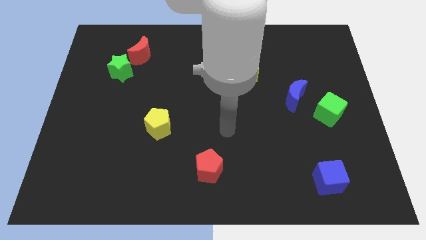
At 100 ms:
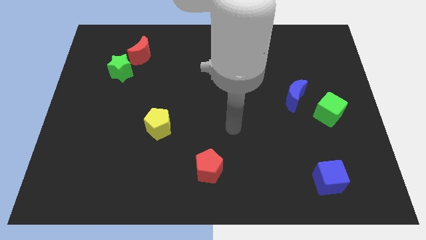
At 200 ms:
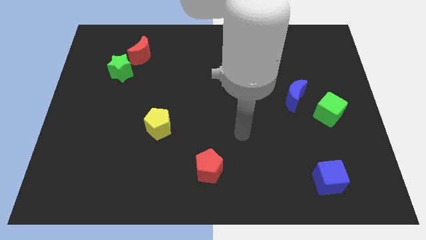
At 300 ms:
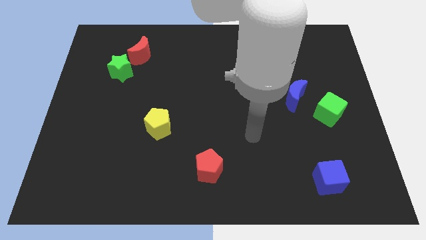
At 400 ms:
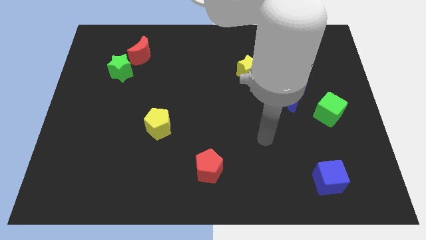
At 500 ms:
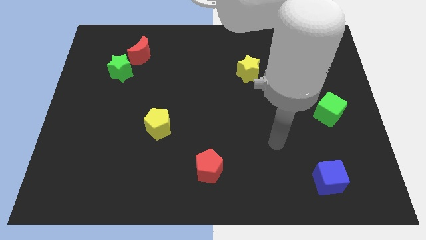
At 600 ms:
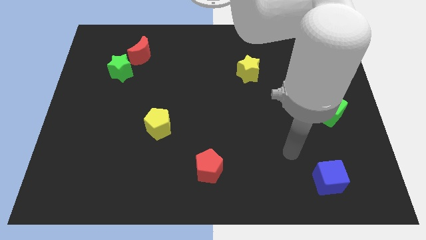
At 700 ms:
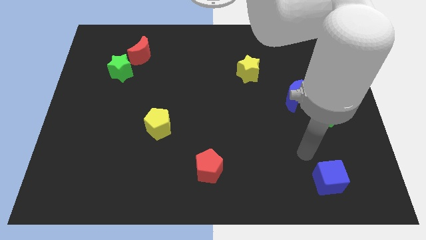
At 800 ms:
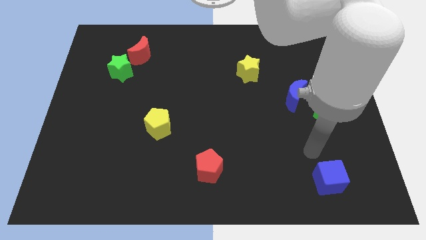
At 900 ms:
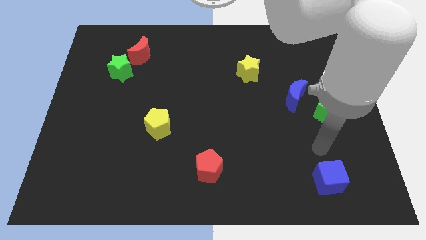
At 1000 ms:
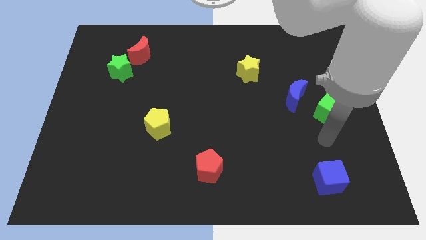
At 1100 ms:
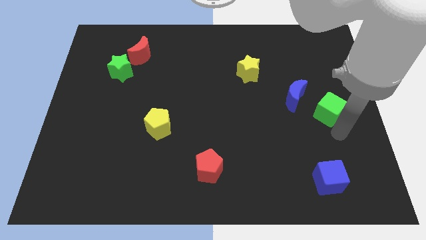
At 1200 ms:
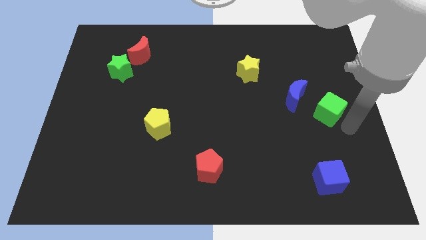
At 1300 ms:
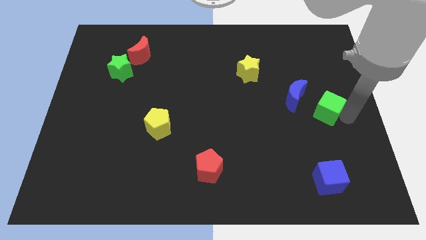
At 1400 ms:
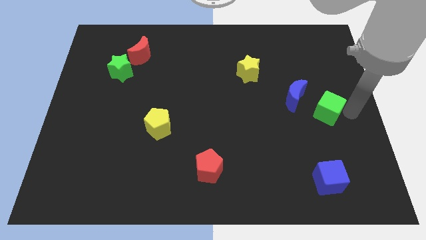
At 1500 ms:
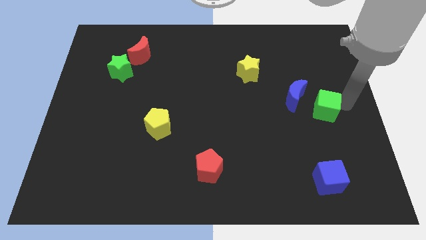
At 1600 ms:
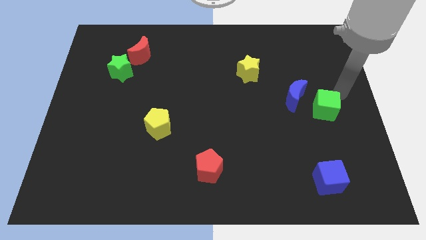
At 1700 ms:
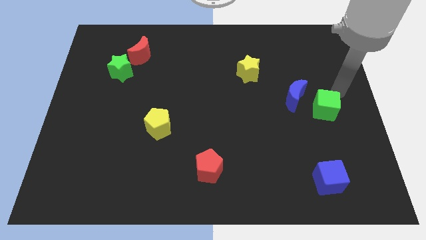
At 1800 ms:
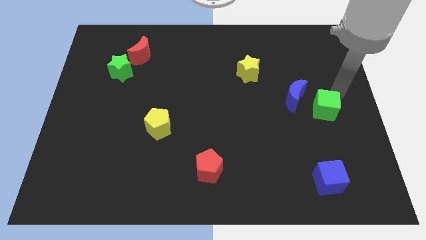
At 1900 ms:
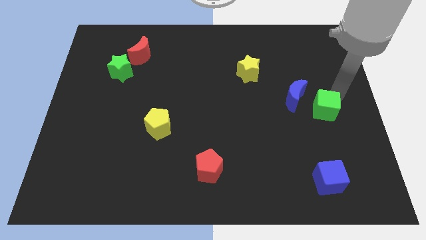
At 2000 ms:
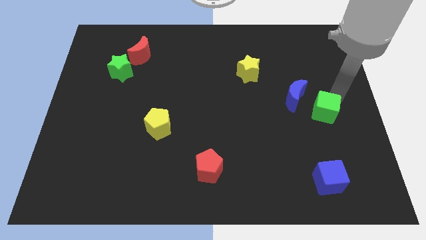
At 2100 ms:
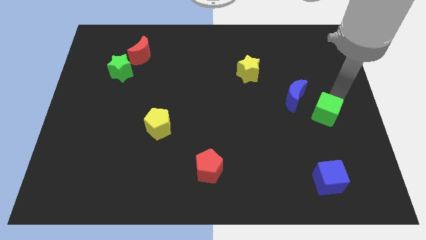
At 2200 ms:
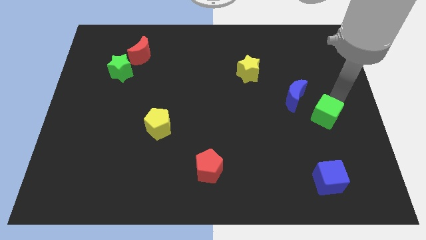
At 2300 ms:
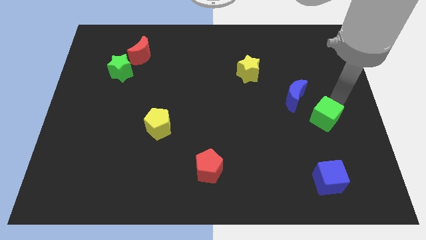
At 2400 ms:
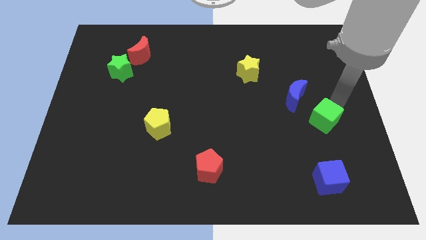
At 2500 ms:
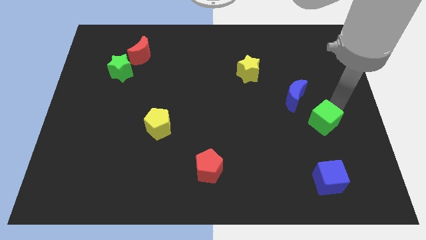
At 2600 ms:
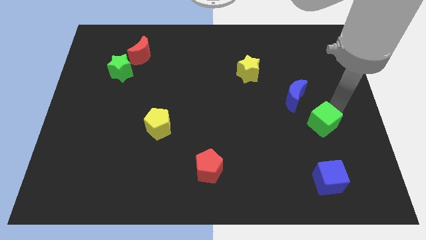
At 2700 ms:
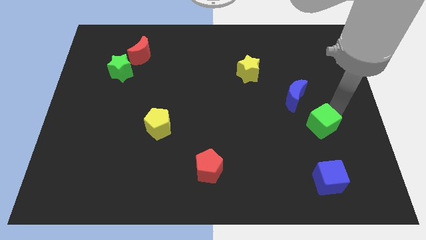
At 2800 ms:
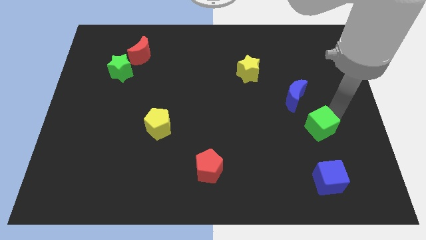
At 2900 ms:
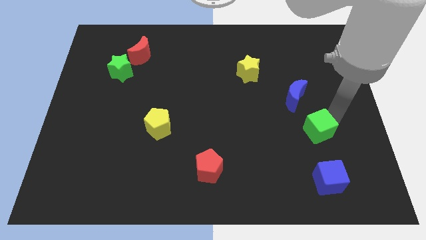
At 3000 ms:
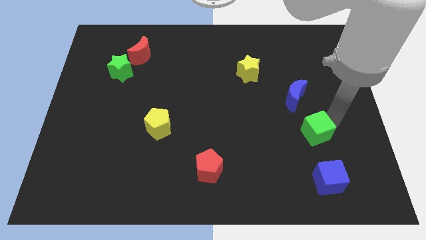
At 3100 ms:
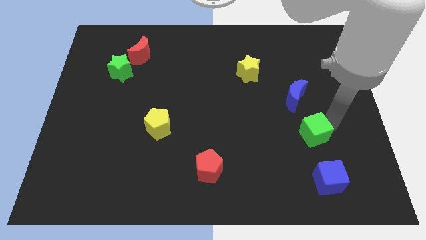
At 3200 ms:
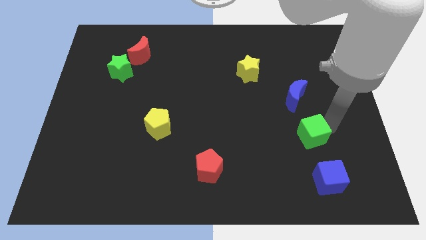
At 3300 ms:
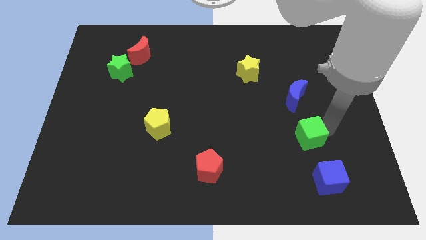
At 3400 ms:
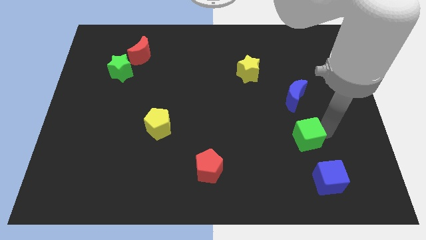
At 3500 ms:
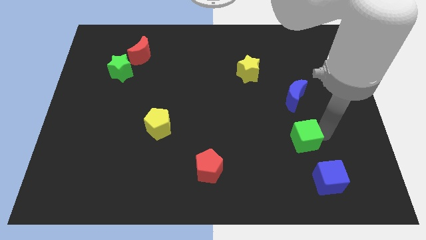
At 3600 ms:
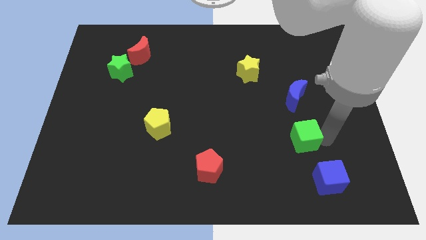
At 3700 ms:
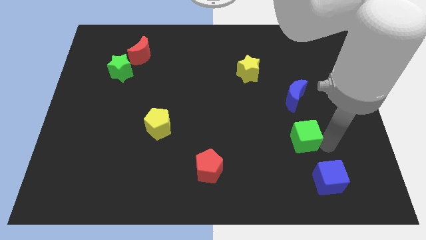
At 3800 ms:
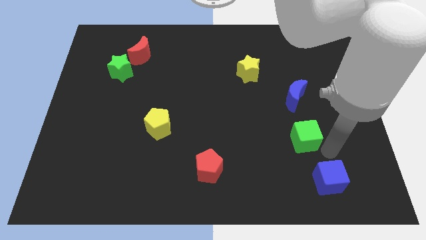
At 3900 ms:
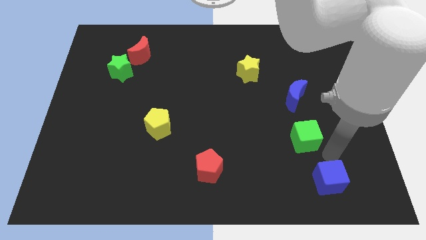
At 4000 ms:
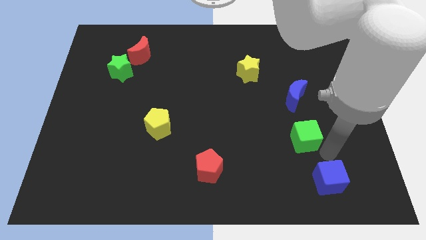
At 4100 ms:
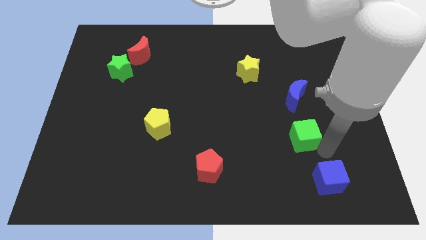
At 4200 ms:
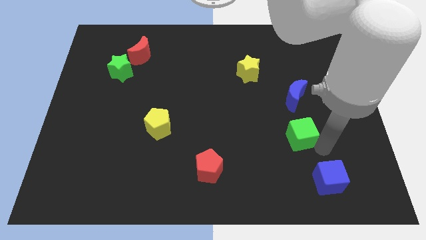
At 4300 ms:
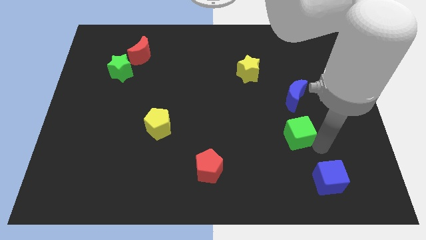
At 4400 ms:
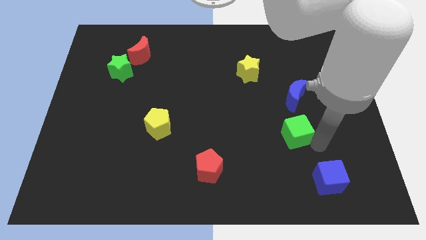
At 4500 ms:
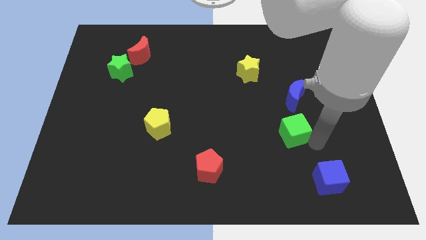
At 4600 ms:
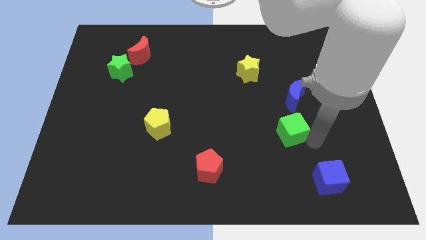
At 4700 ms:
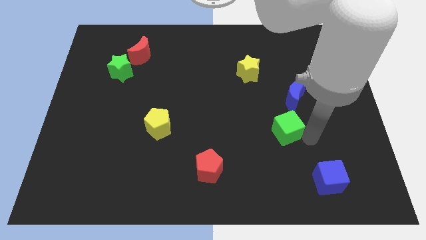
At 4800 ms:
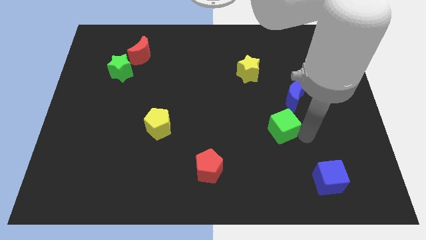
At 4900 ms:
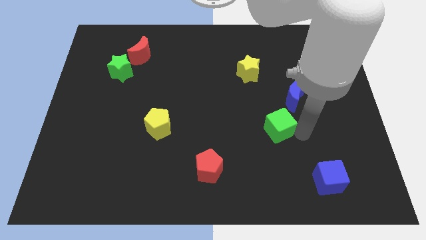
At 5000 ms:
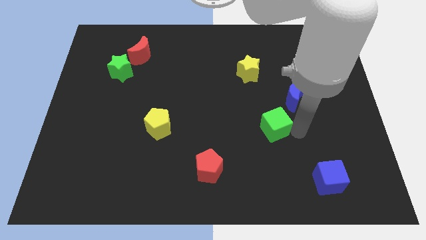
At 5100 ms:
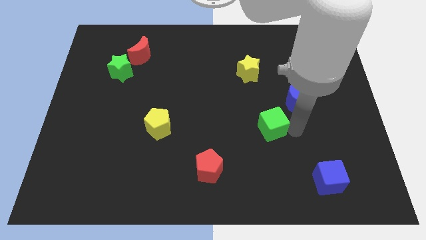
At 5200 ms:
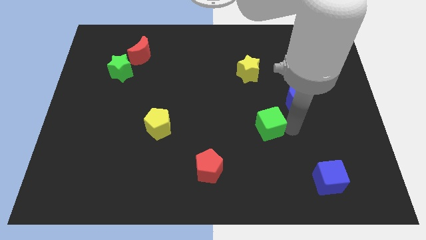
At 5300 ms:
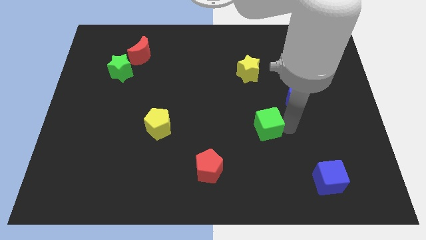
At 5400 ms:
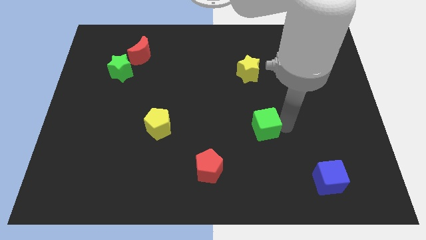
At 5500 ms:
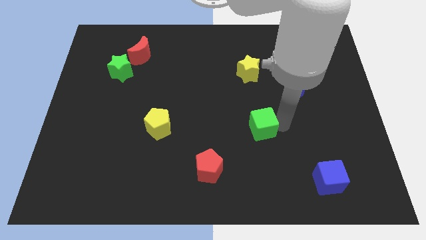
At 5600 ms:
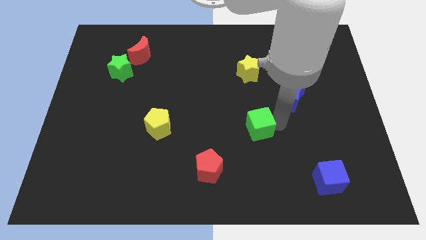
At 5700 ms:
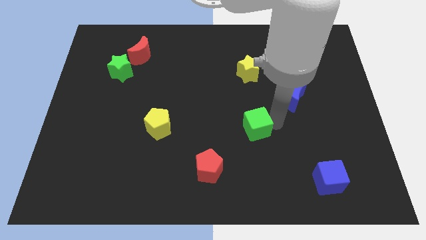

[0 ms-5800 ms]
put the green cube to the middle of the board

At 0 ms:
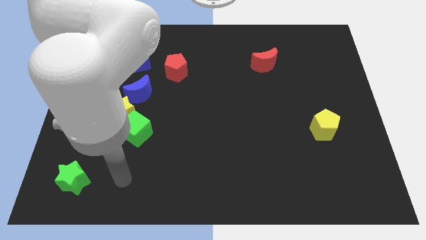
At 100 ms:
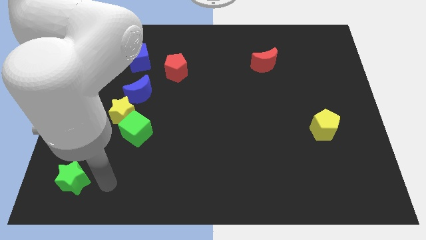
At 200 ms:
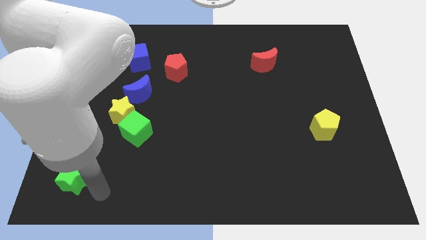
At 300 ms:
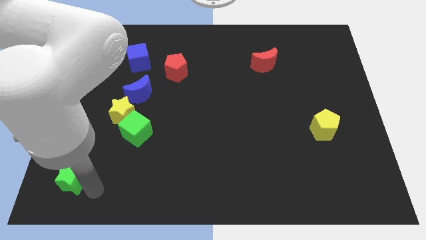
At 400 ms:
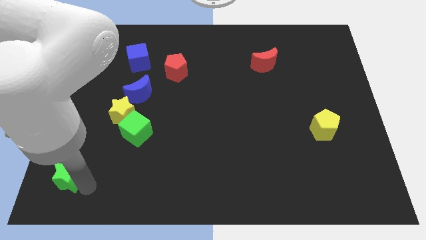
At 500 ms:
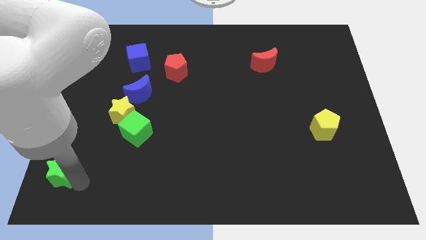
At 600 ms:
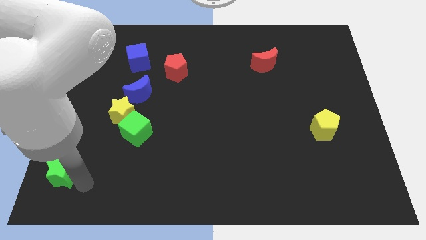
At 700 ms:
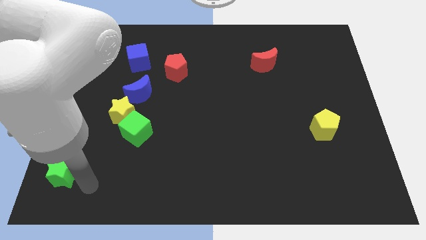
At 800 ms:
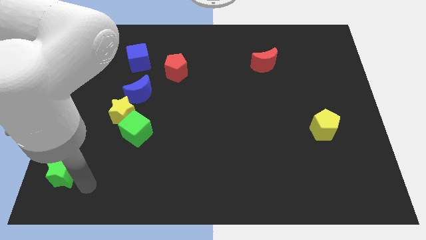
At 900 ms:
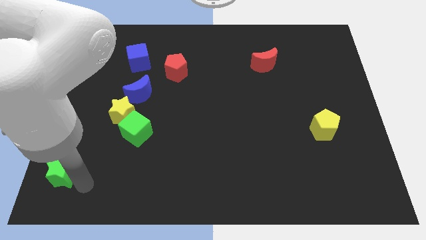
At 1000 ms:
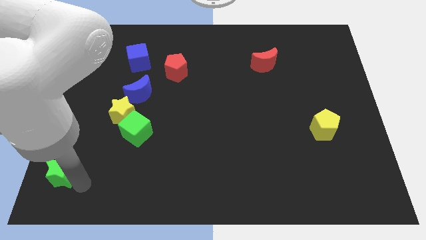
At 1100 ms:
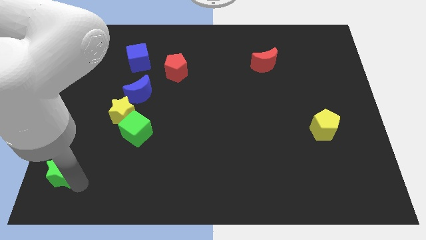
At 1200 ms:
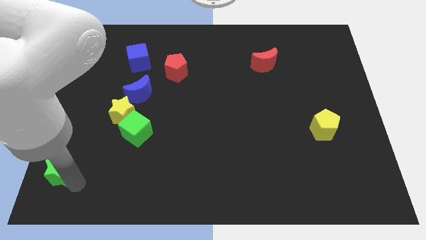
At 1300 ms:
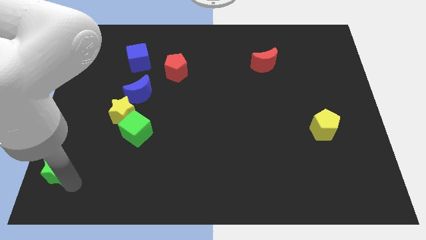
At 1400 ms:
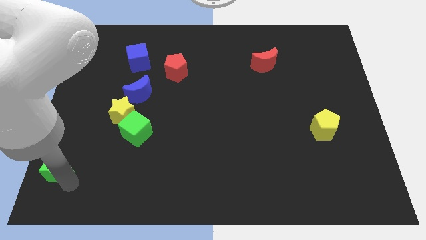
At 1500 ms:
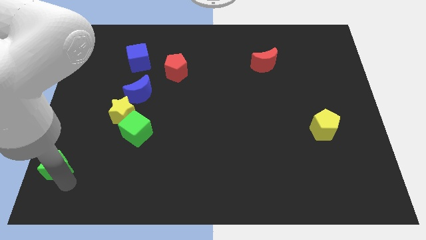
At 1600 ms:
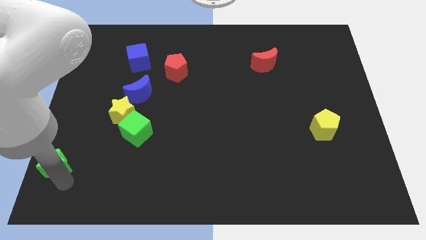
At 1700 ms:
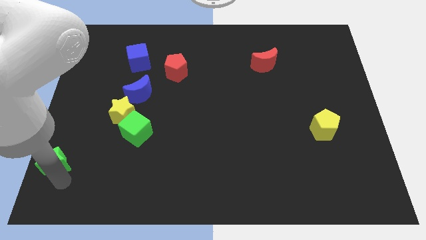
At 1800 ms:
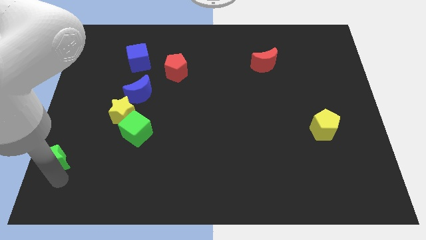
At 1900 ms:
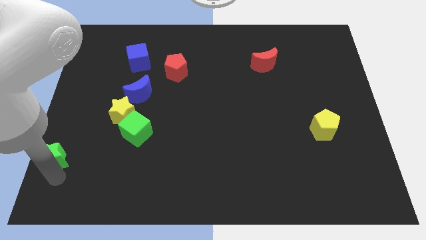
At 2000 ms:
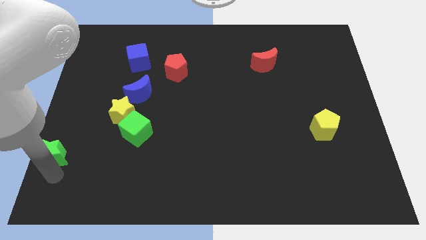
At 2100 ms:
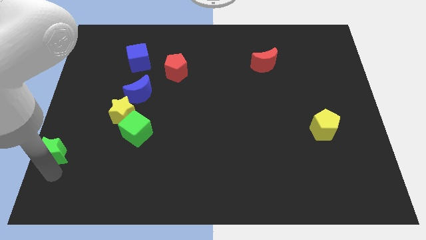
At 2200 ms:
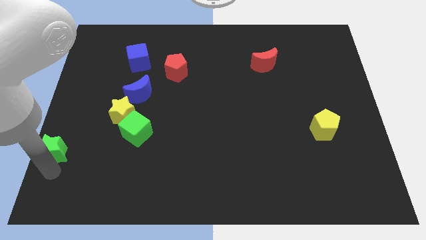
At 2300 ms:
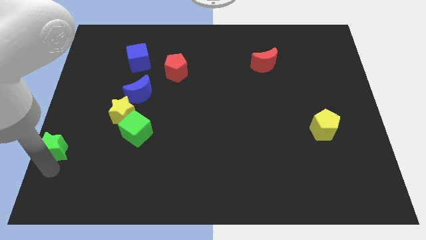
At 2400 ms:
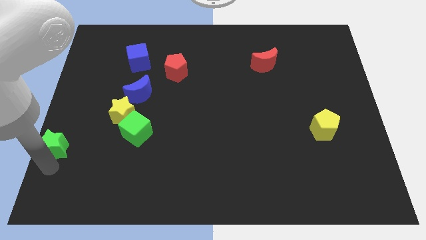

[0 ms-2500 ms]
slide the green star to the left side
